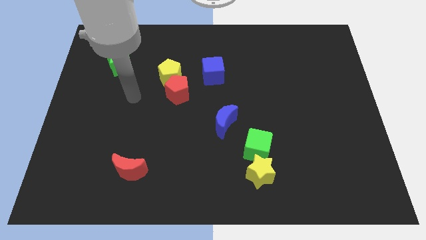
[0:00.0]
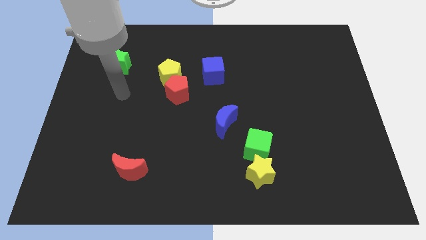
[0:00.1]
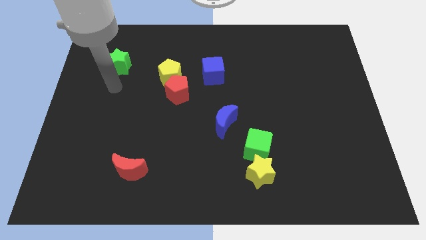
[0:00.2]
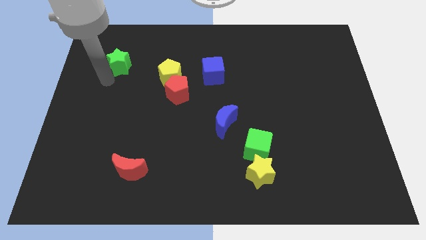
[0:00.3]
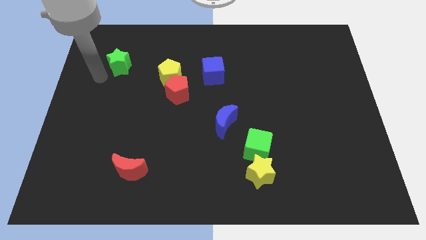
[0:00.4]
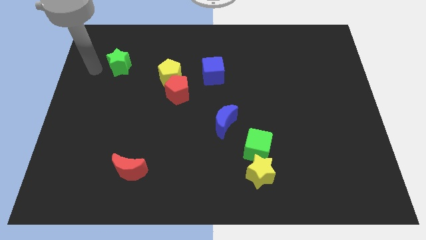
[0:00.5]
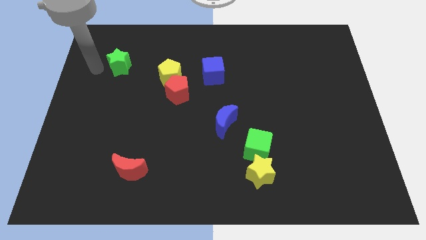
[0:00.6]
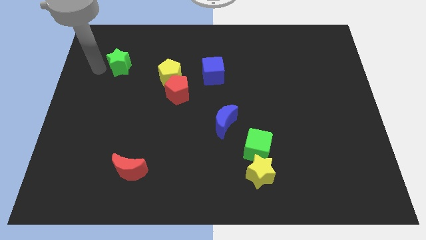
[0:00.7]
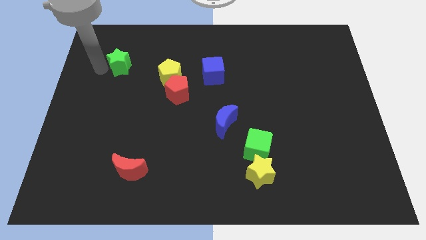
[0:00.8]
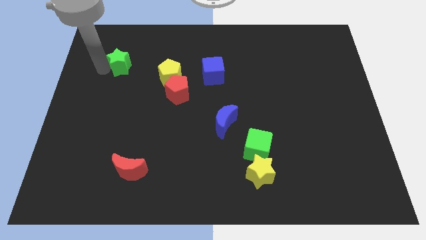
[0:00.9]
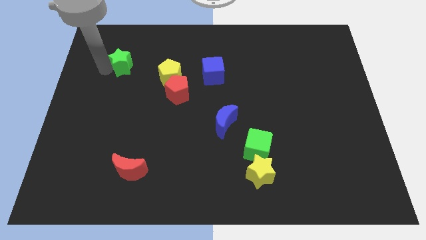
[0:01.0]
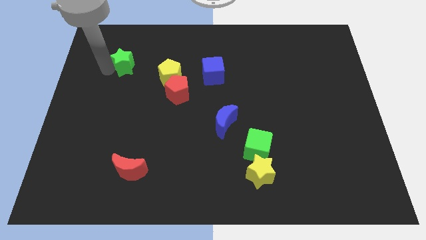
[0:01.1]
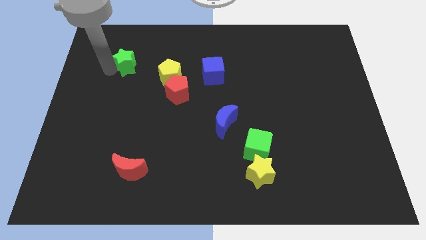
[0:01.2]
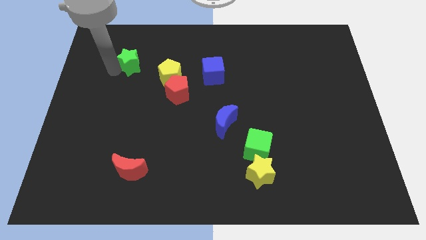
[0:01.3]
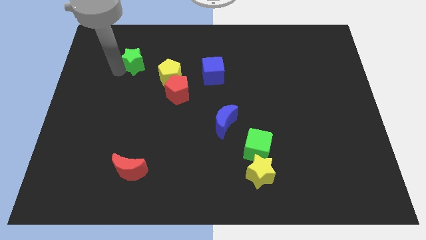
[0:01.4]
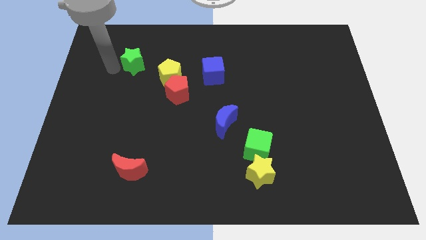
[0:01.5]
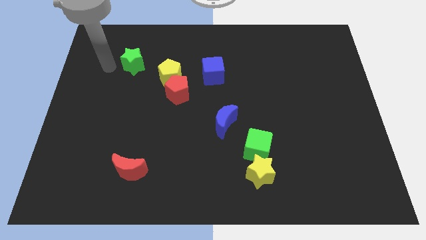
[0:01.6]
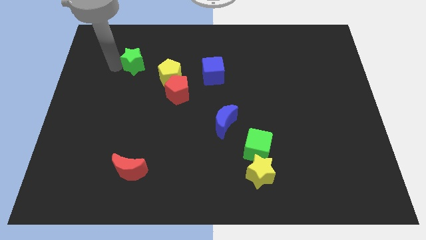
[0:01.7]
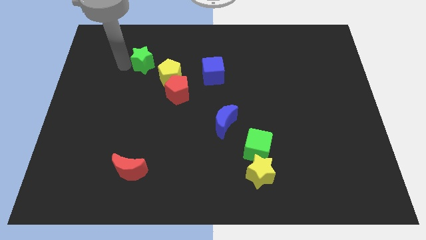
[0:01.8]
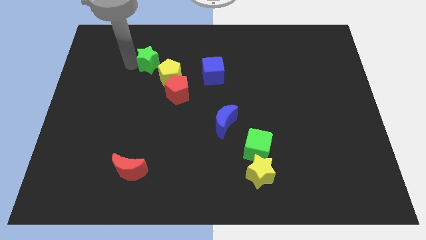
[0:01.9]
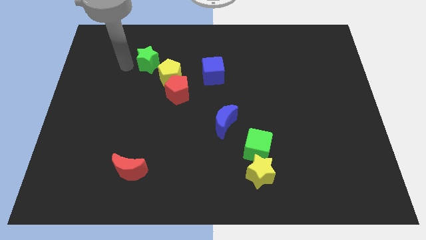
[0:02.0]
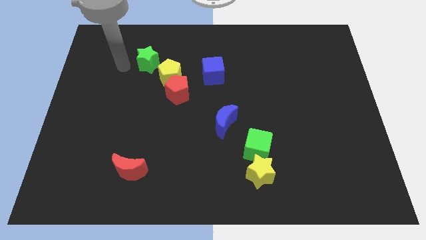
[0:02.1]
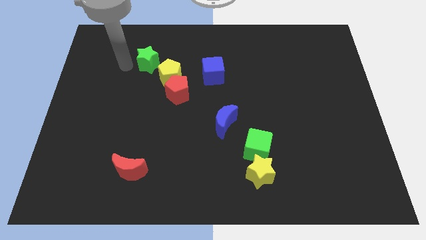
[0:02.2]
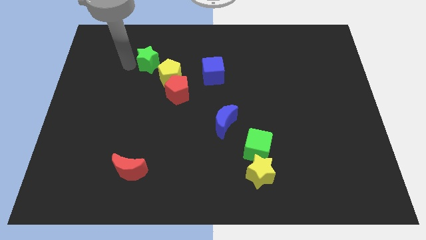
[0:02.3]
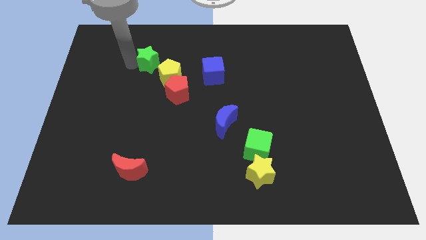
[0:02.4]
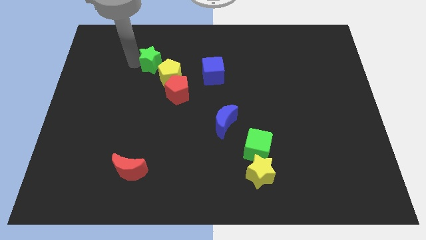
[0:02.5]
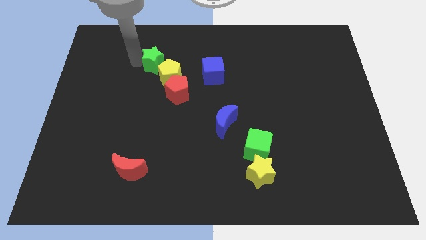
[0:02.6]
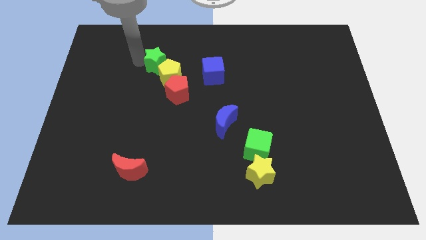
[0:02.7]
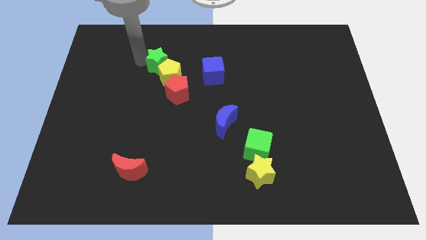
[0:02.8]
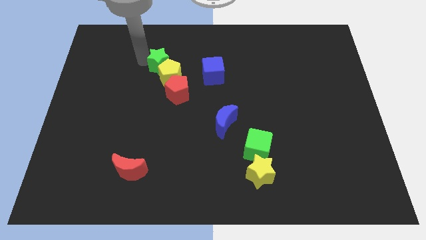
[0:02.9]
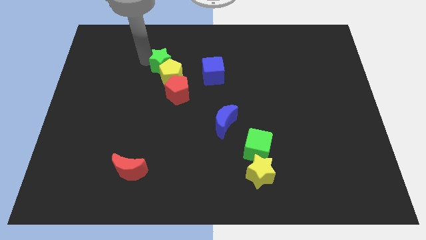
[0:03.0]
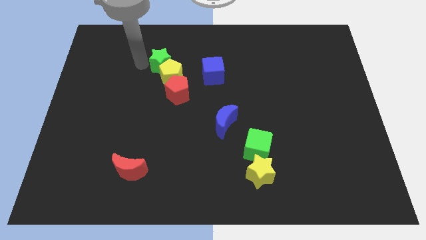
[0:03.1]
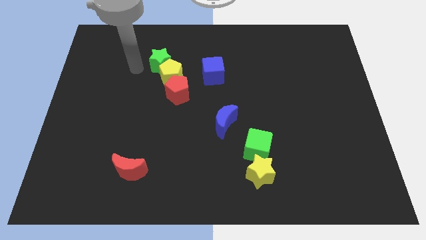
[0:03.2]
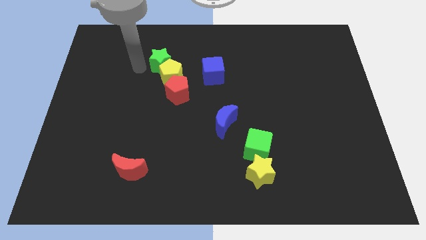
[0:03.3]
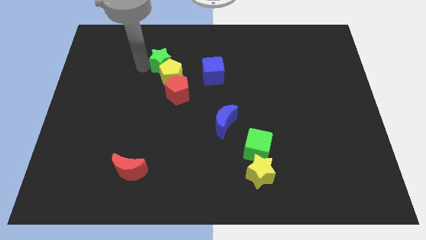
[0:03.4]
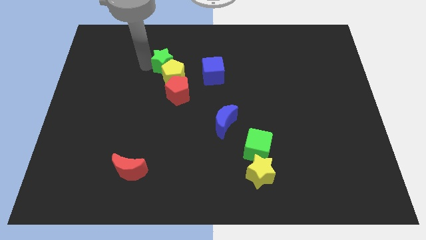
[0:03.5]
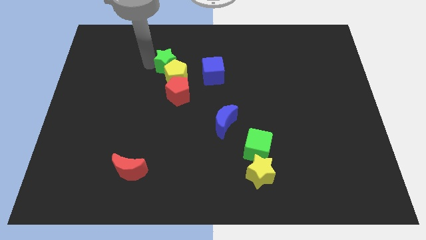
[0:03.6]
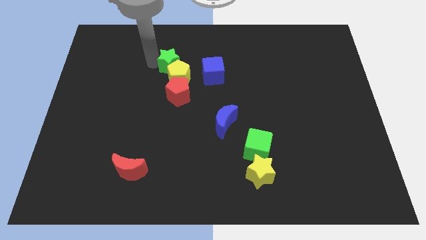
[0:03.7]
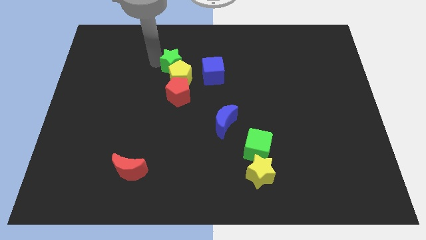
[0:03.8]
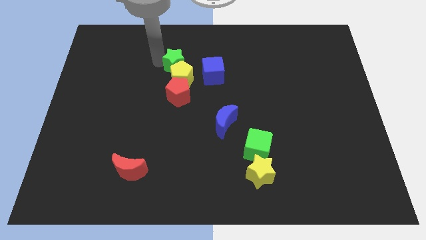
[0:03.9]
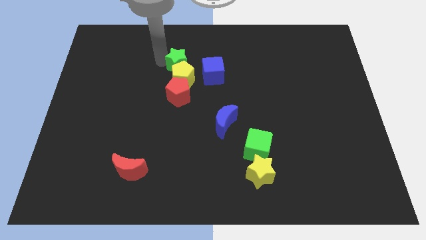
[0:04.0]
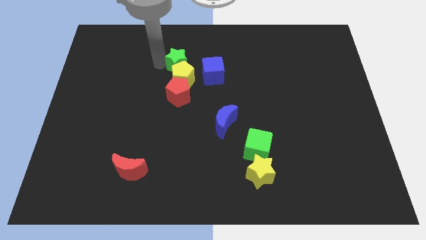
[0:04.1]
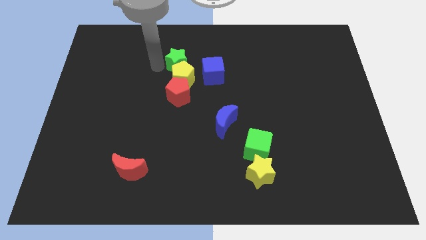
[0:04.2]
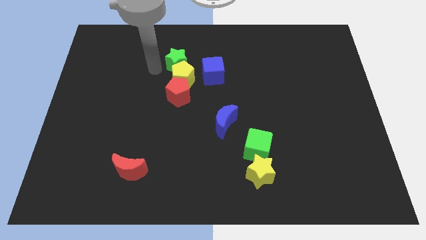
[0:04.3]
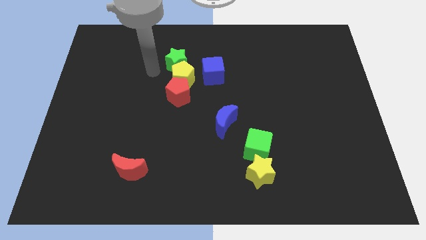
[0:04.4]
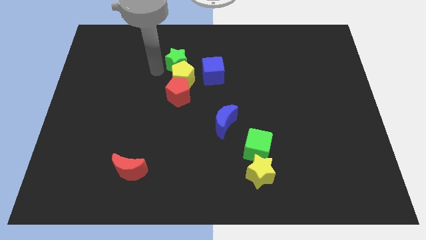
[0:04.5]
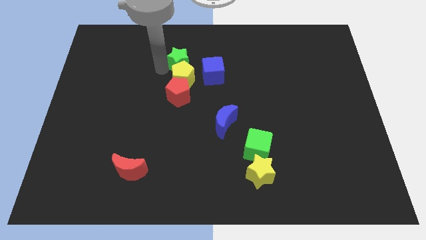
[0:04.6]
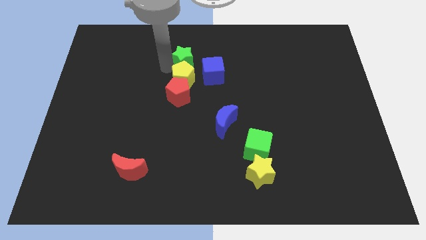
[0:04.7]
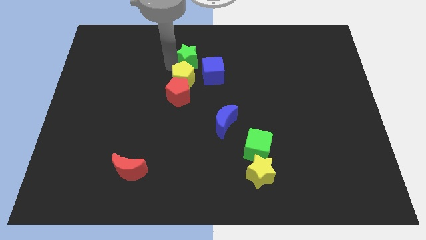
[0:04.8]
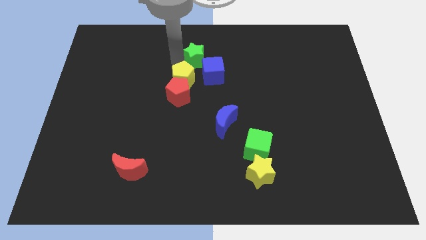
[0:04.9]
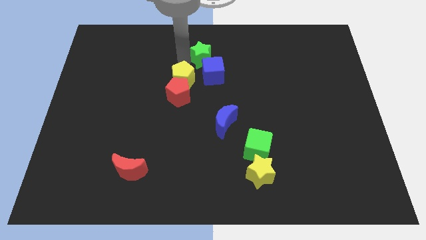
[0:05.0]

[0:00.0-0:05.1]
move the green star to the right

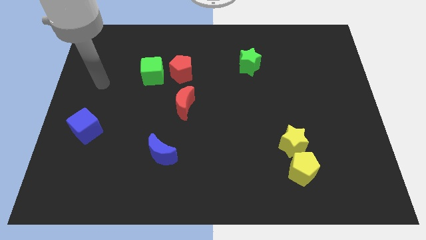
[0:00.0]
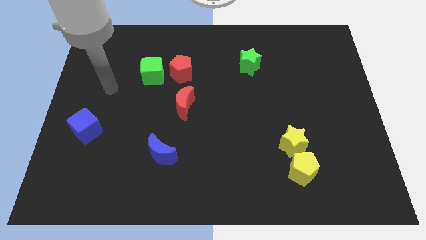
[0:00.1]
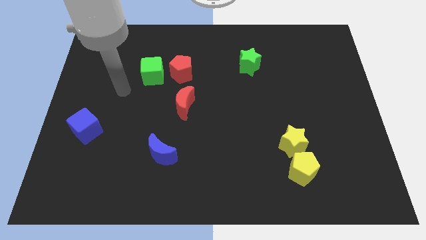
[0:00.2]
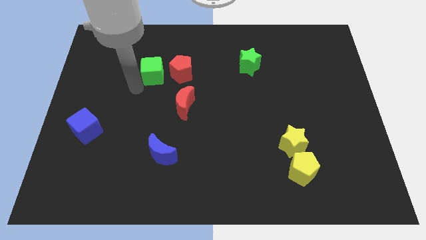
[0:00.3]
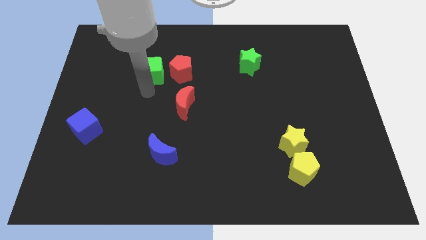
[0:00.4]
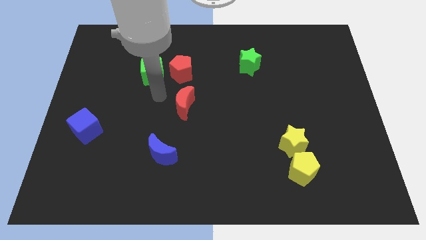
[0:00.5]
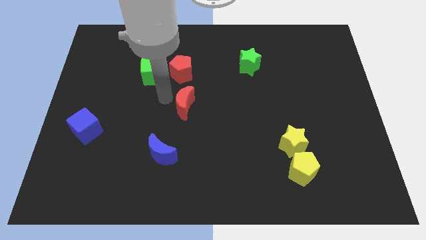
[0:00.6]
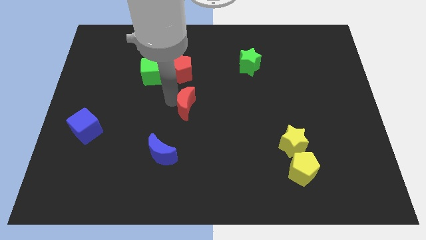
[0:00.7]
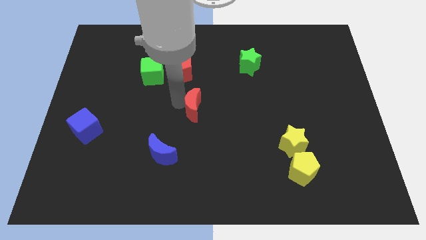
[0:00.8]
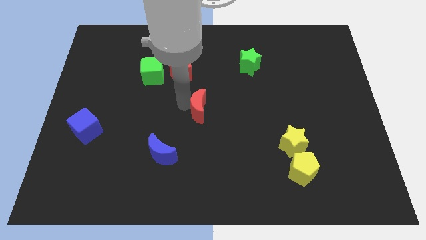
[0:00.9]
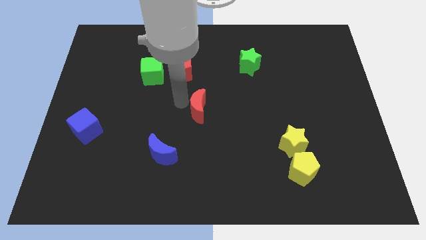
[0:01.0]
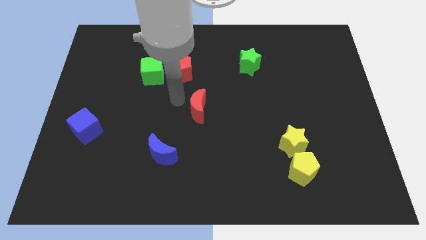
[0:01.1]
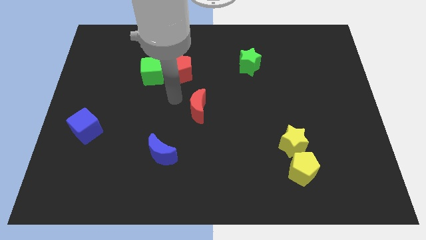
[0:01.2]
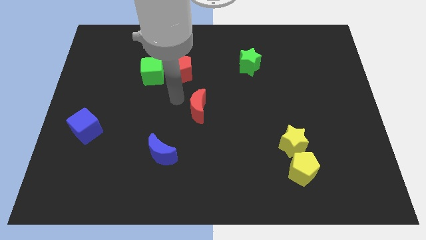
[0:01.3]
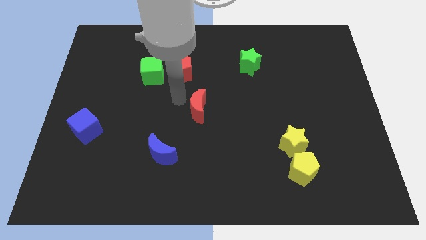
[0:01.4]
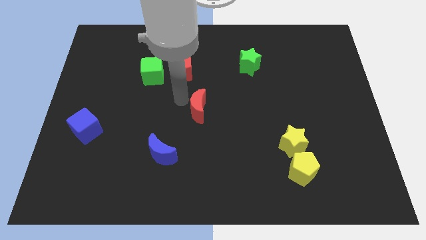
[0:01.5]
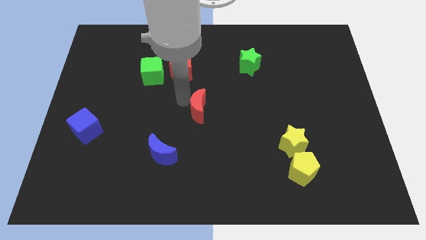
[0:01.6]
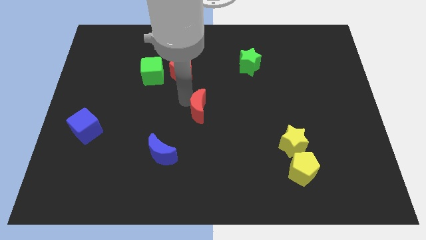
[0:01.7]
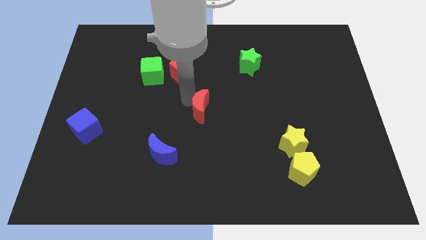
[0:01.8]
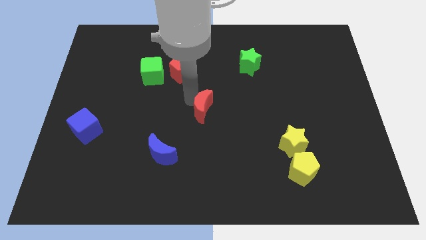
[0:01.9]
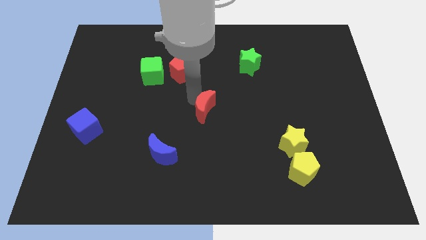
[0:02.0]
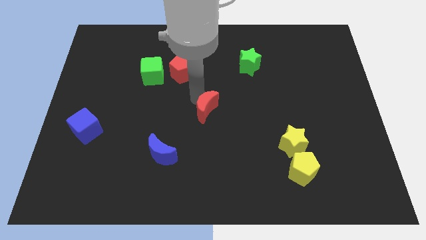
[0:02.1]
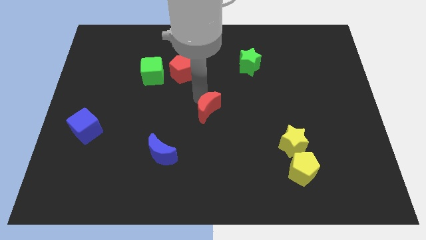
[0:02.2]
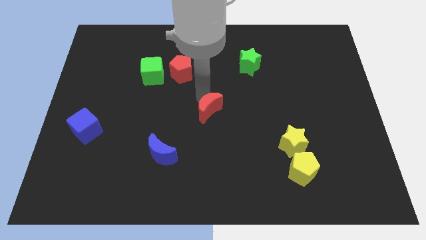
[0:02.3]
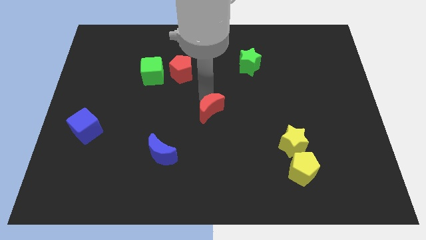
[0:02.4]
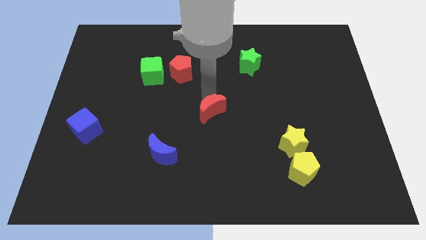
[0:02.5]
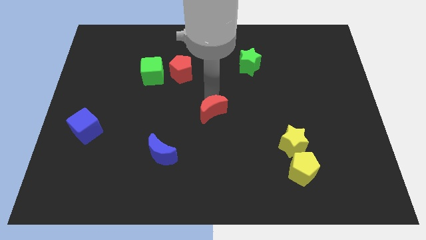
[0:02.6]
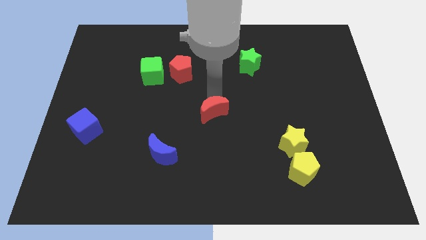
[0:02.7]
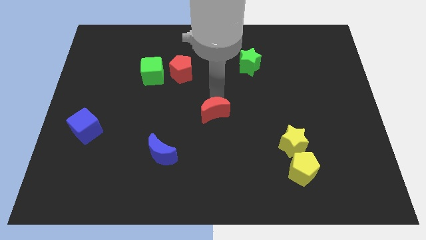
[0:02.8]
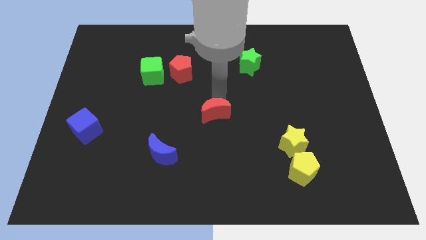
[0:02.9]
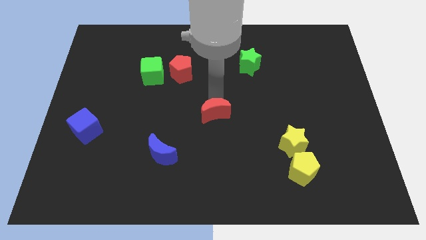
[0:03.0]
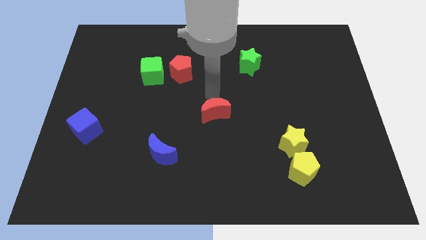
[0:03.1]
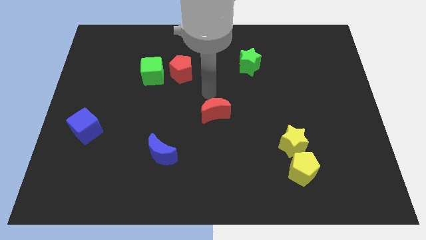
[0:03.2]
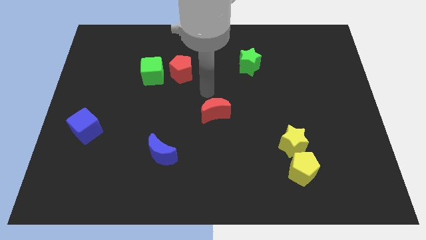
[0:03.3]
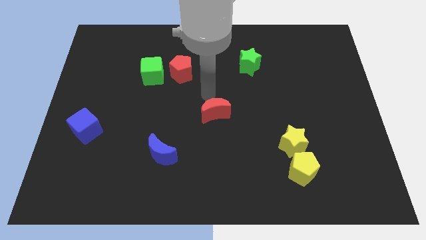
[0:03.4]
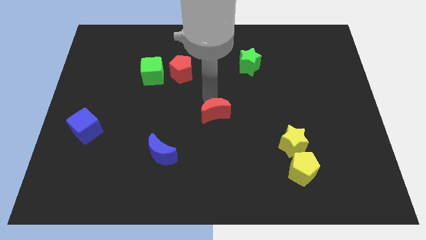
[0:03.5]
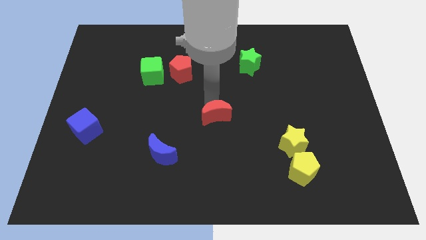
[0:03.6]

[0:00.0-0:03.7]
move the red moon down and then right a bit
